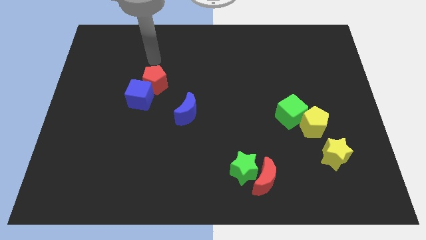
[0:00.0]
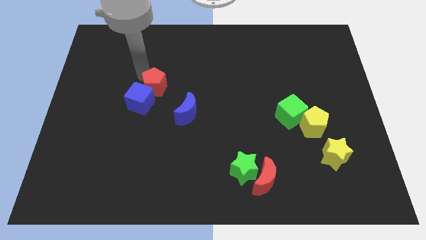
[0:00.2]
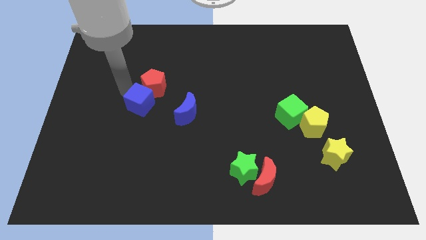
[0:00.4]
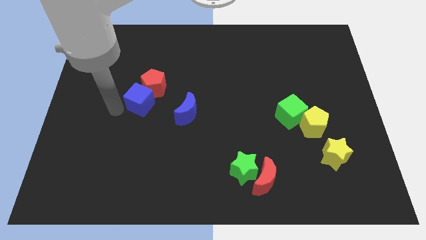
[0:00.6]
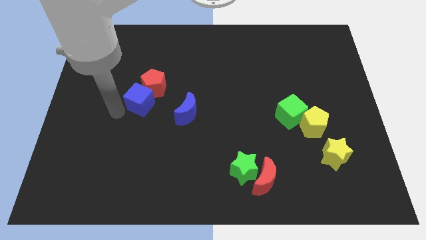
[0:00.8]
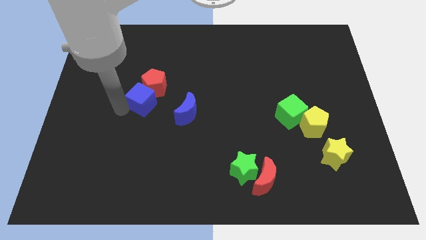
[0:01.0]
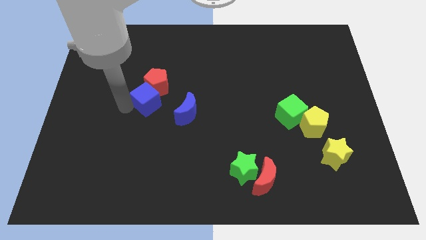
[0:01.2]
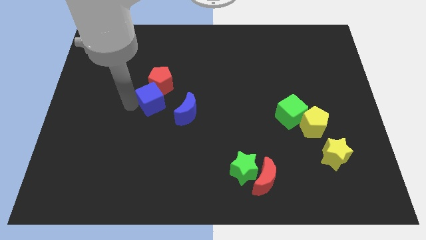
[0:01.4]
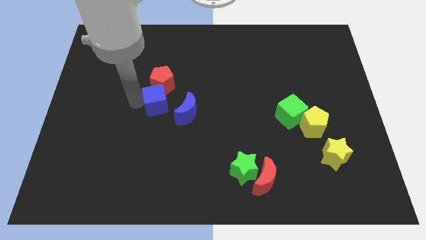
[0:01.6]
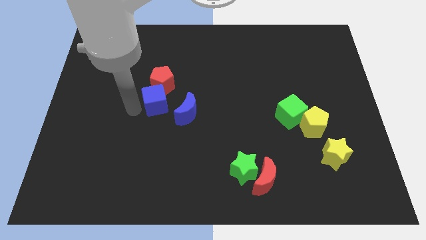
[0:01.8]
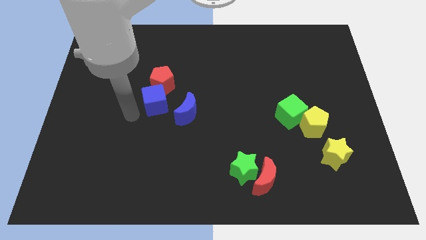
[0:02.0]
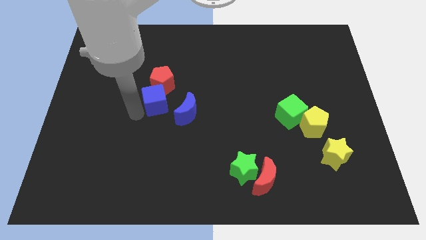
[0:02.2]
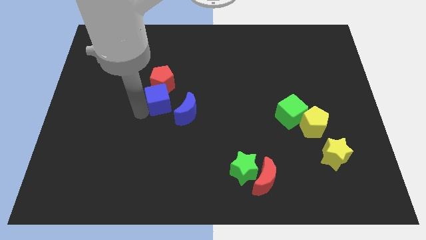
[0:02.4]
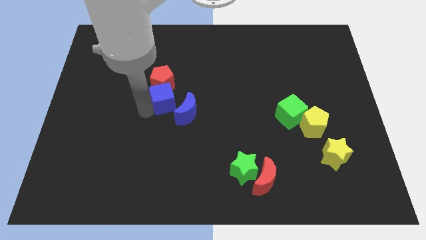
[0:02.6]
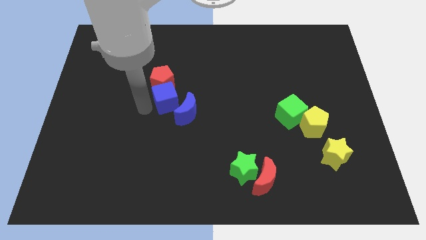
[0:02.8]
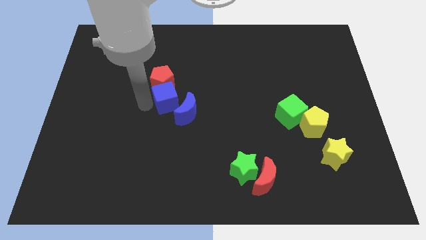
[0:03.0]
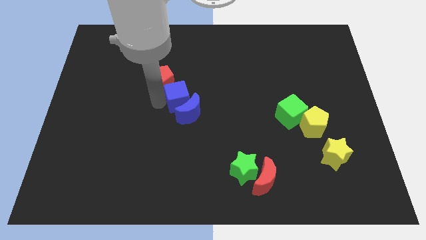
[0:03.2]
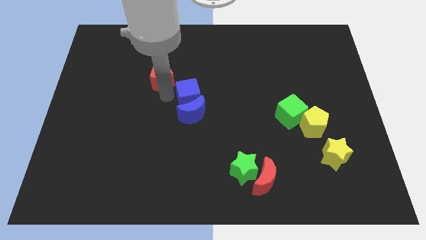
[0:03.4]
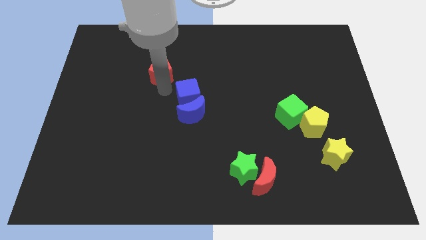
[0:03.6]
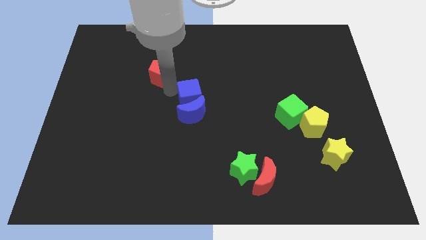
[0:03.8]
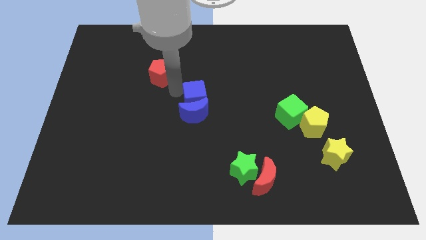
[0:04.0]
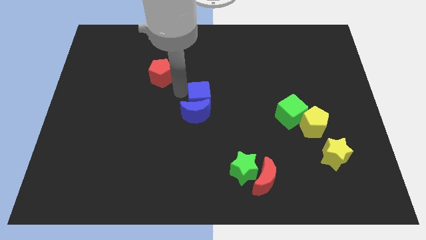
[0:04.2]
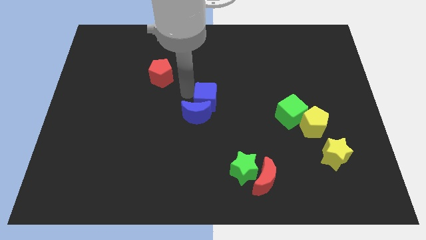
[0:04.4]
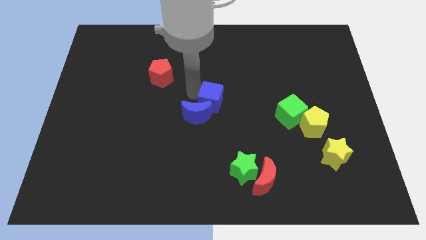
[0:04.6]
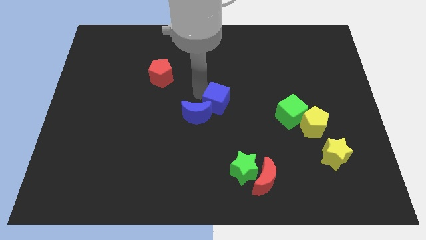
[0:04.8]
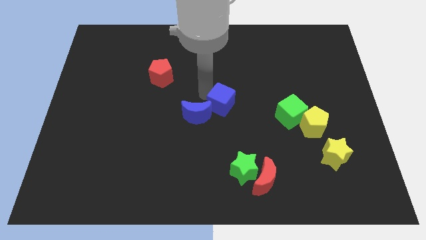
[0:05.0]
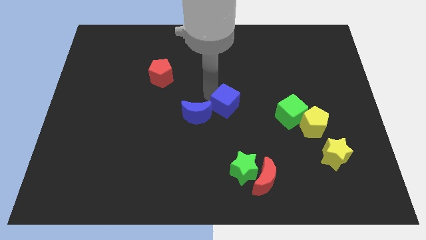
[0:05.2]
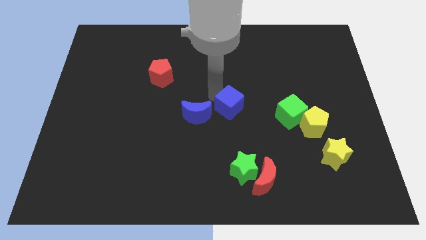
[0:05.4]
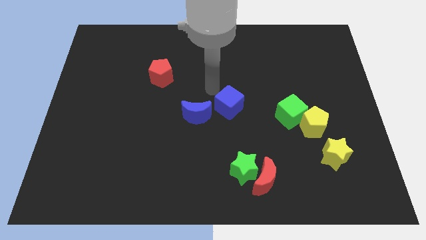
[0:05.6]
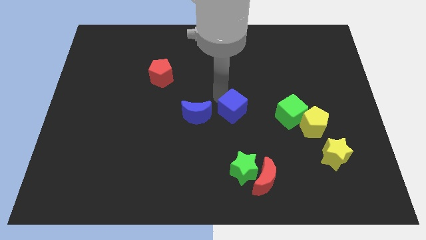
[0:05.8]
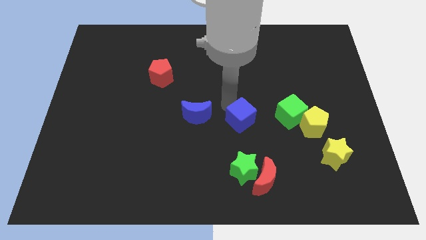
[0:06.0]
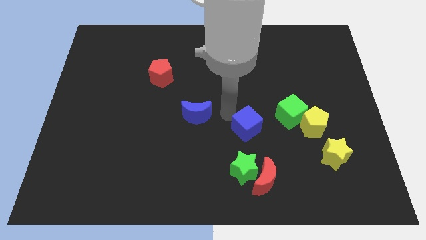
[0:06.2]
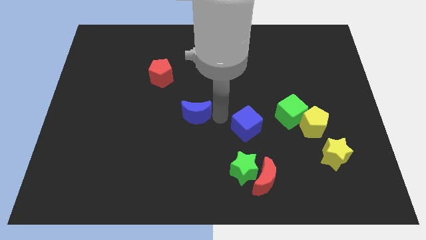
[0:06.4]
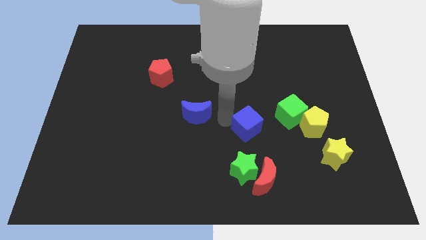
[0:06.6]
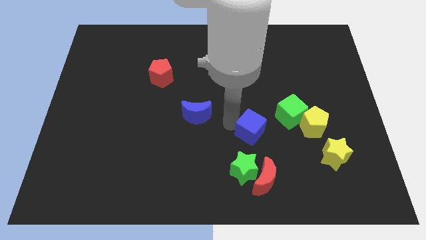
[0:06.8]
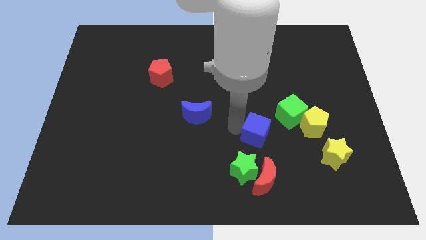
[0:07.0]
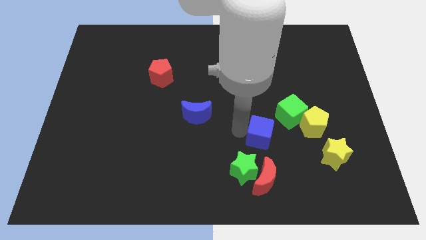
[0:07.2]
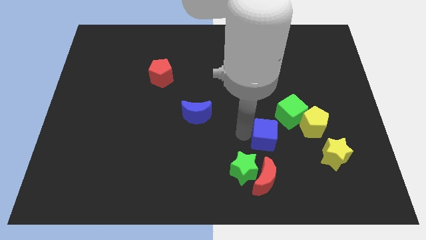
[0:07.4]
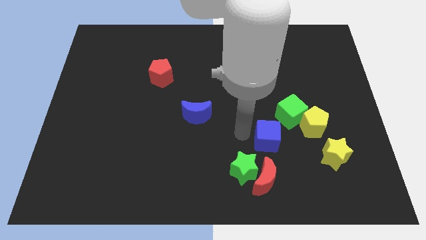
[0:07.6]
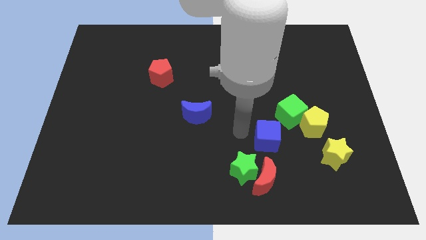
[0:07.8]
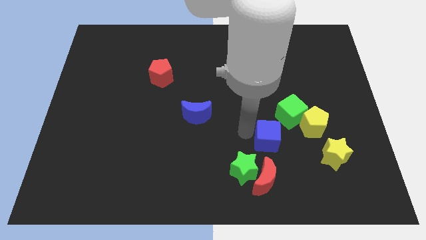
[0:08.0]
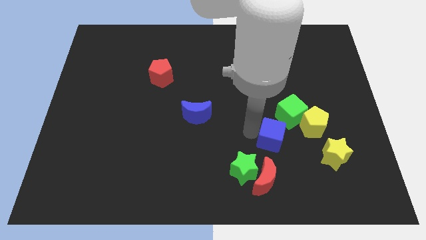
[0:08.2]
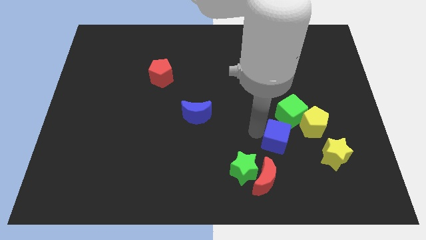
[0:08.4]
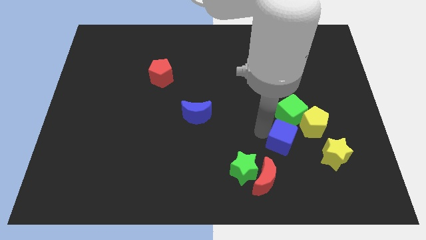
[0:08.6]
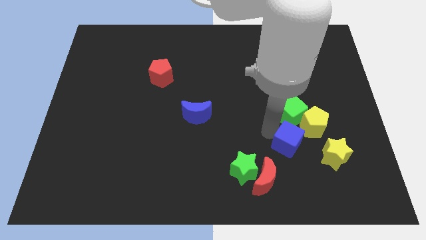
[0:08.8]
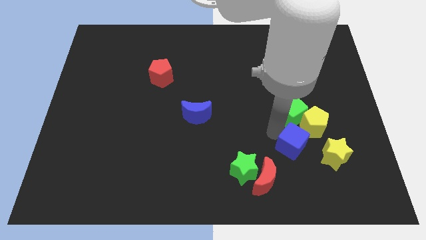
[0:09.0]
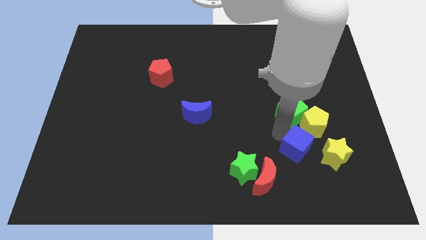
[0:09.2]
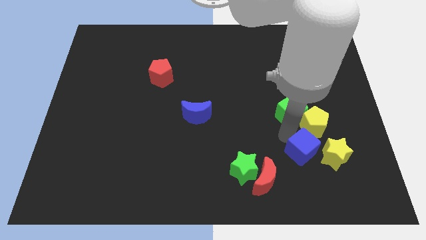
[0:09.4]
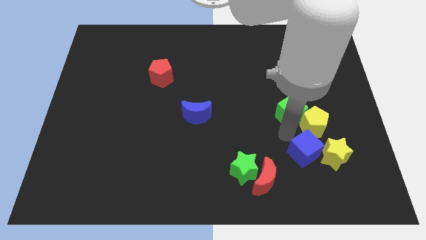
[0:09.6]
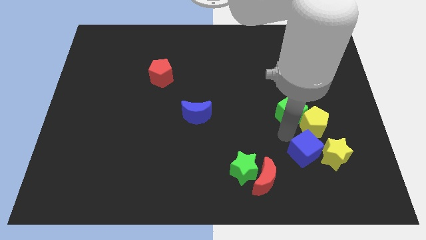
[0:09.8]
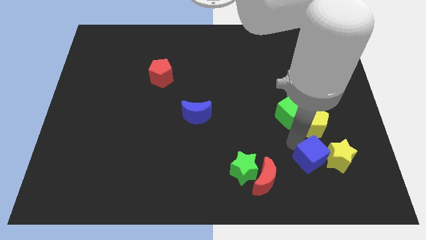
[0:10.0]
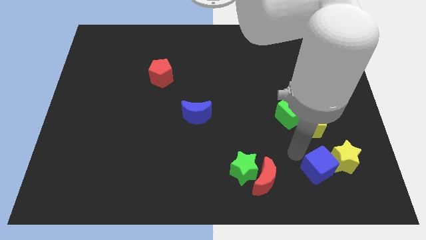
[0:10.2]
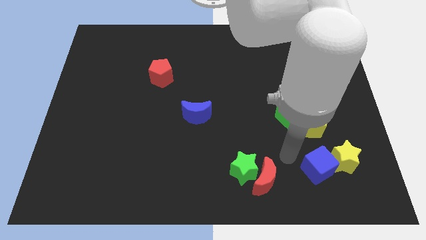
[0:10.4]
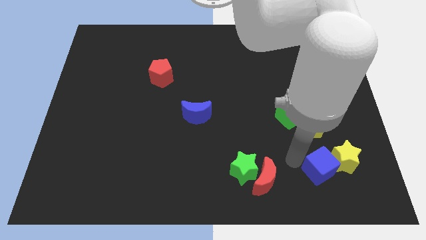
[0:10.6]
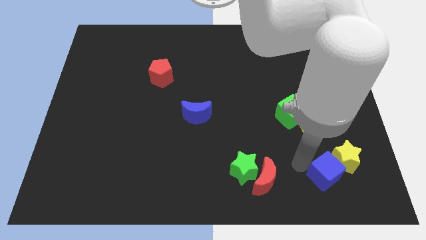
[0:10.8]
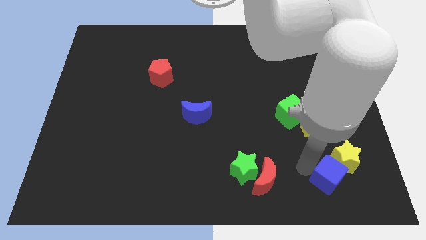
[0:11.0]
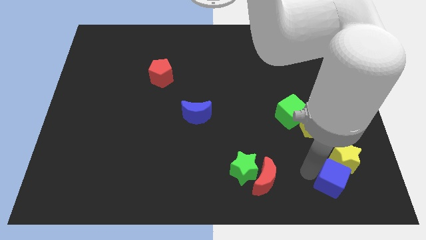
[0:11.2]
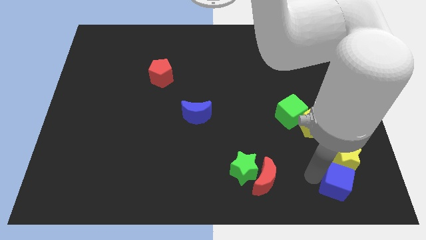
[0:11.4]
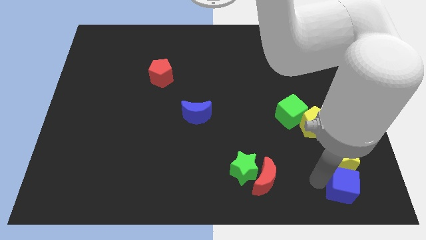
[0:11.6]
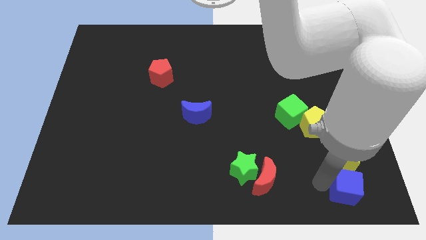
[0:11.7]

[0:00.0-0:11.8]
slide the blue cube to the bottom right of the board

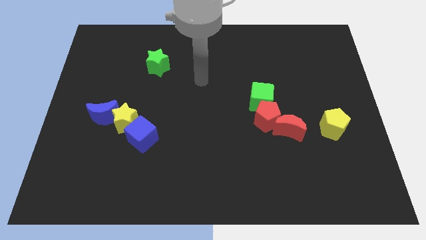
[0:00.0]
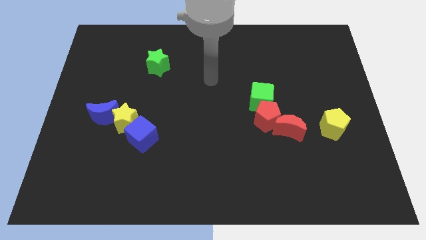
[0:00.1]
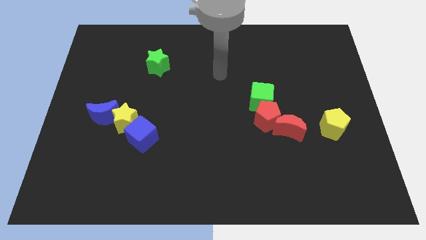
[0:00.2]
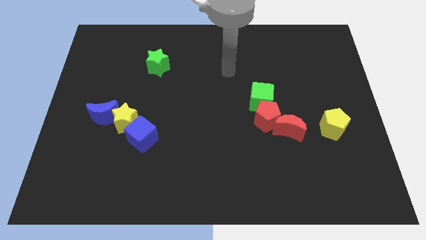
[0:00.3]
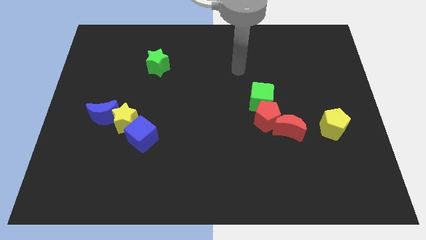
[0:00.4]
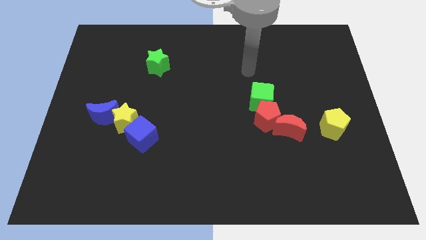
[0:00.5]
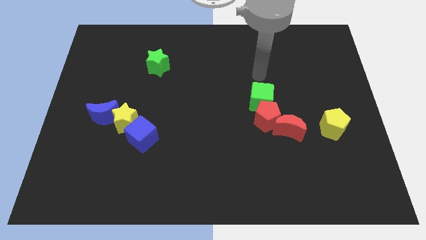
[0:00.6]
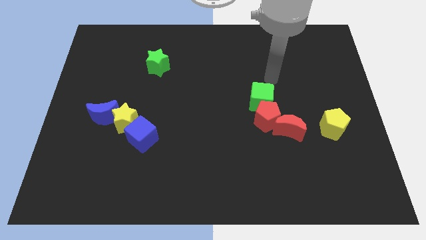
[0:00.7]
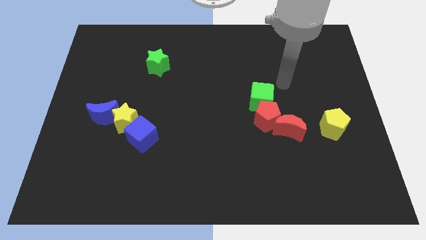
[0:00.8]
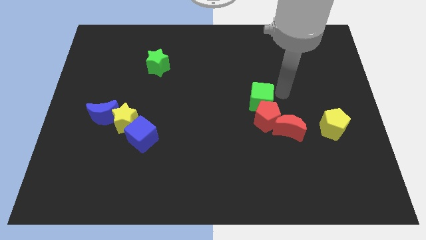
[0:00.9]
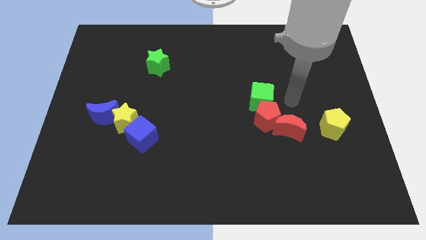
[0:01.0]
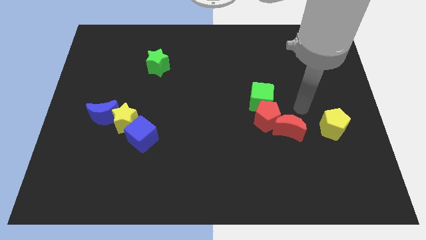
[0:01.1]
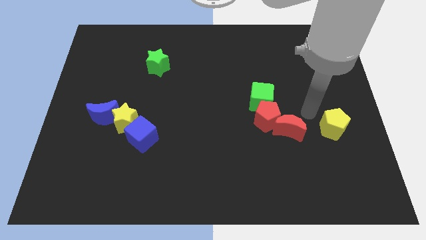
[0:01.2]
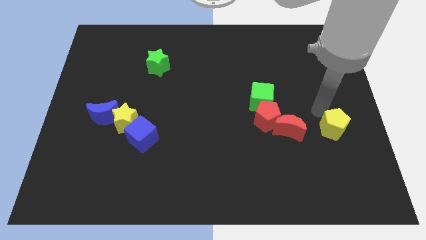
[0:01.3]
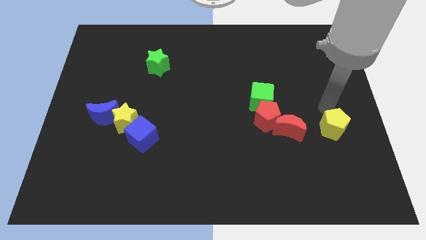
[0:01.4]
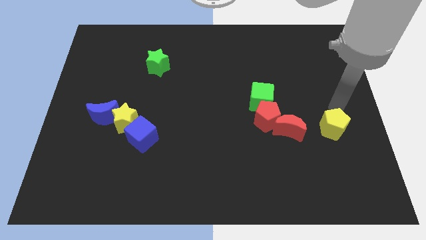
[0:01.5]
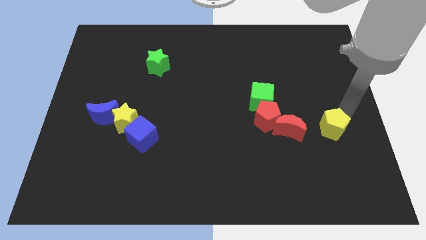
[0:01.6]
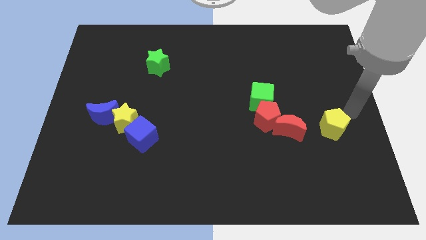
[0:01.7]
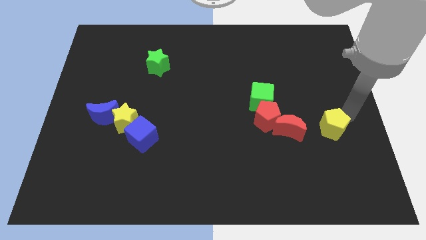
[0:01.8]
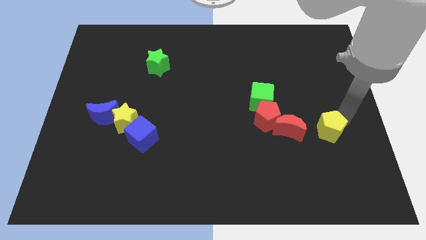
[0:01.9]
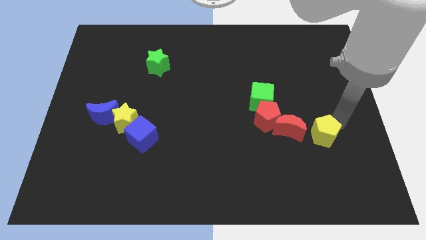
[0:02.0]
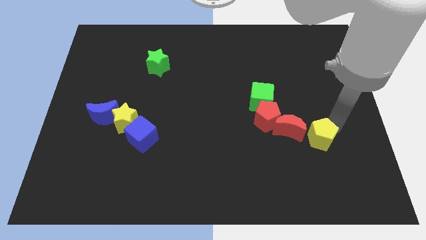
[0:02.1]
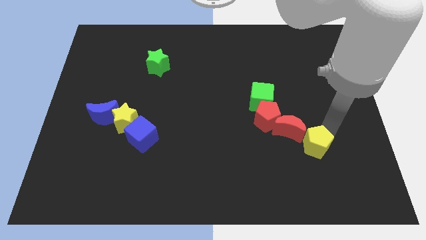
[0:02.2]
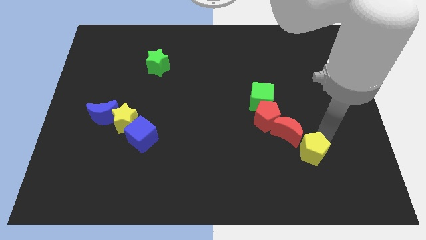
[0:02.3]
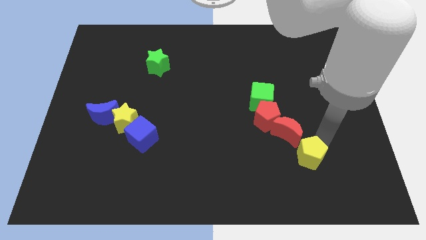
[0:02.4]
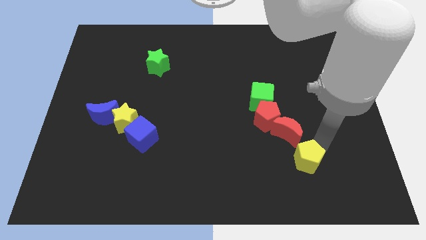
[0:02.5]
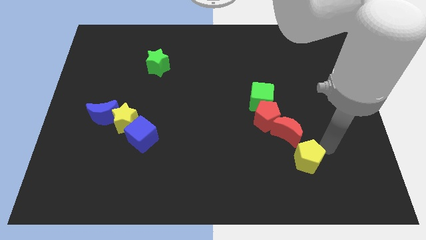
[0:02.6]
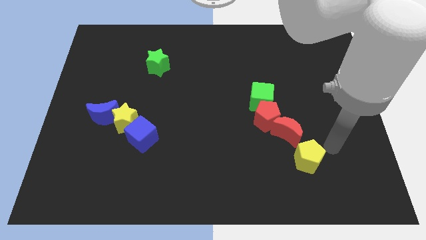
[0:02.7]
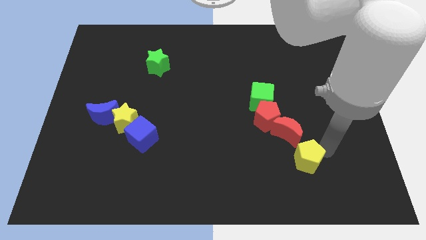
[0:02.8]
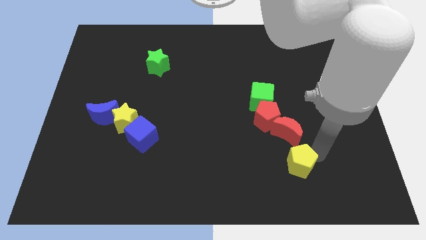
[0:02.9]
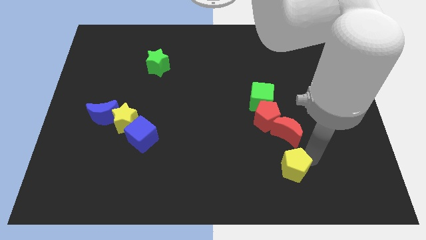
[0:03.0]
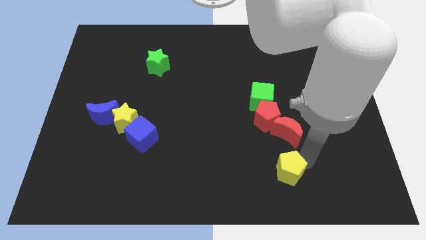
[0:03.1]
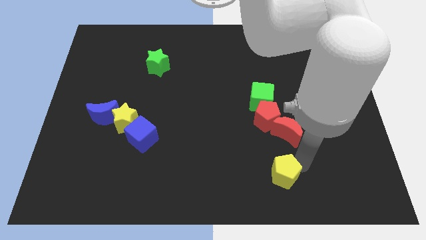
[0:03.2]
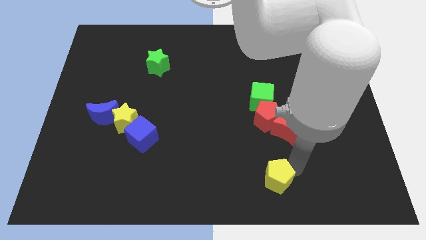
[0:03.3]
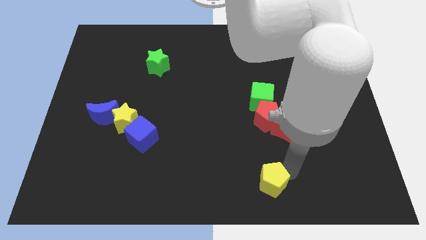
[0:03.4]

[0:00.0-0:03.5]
move the yellow pentagon to the bottom side
